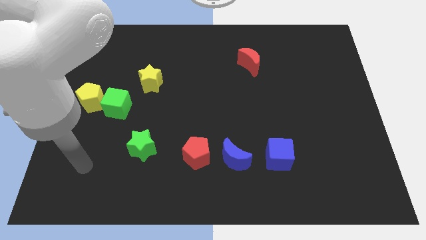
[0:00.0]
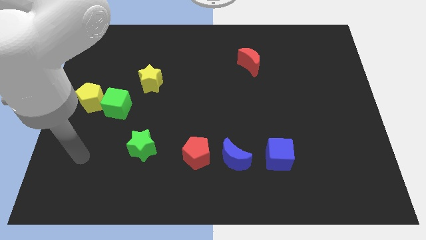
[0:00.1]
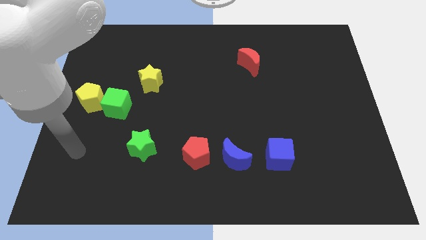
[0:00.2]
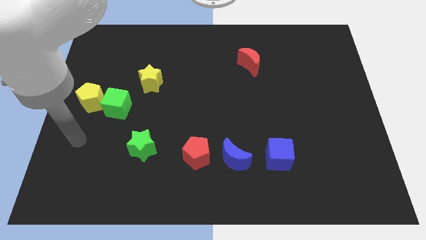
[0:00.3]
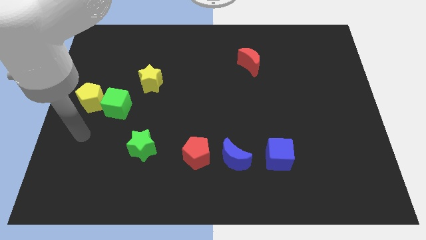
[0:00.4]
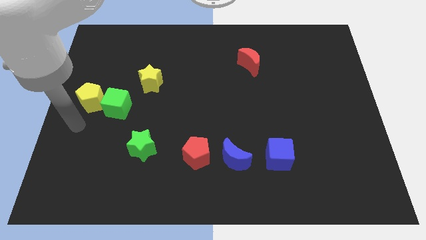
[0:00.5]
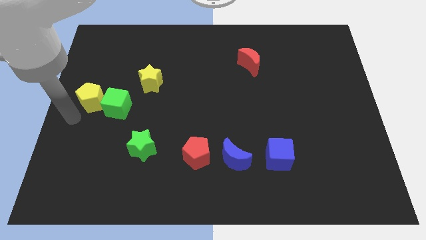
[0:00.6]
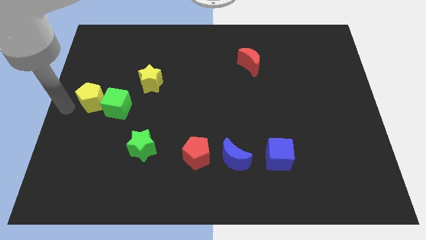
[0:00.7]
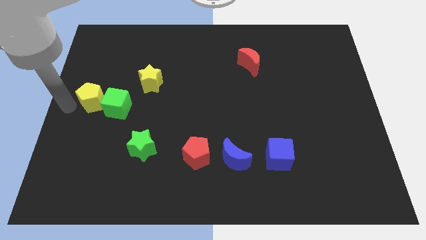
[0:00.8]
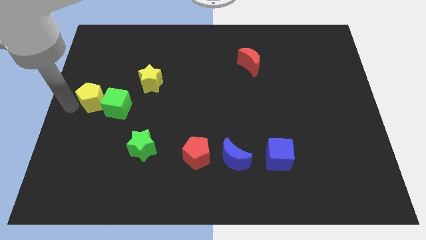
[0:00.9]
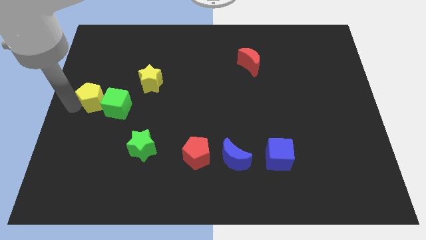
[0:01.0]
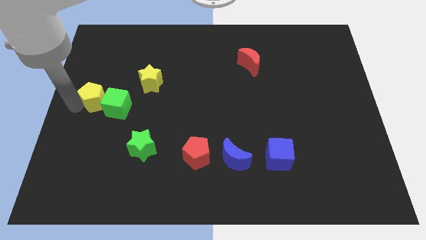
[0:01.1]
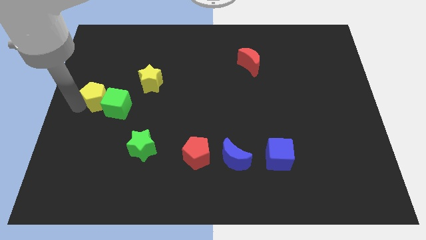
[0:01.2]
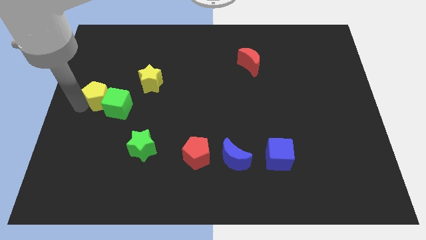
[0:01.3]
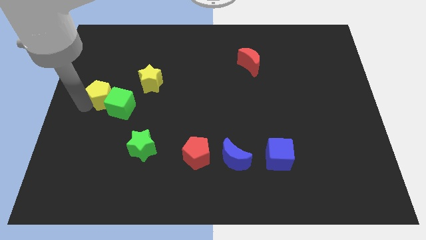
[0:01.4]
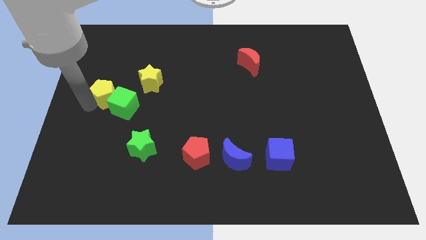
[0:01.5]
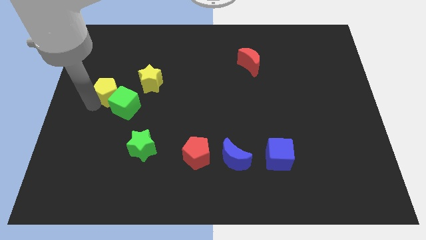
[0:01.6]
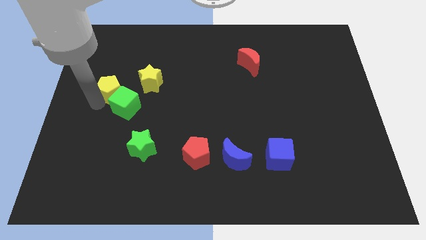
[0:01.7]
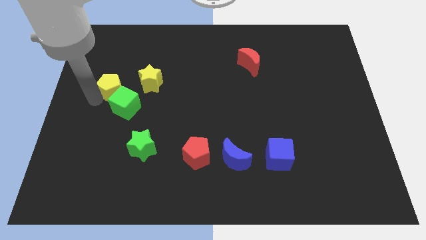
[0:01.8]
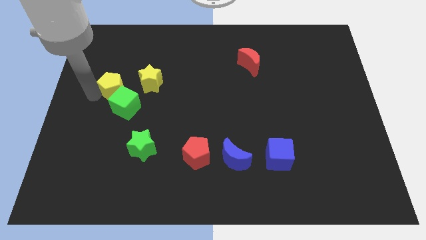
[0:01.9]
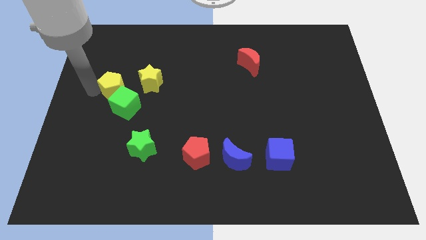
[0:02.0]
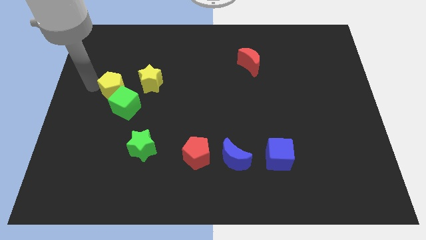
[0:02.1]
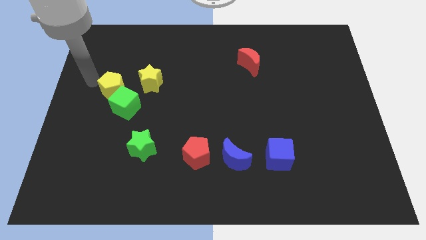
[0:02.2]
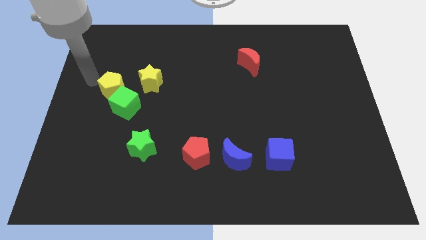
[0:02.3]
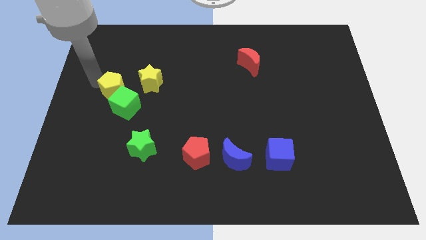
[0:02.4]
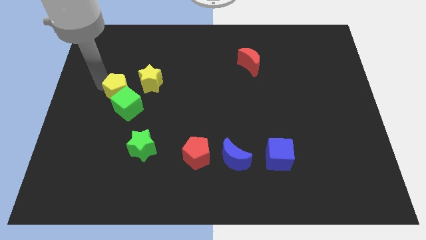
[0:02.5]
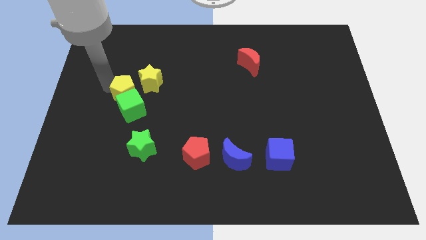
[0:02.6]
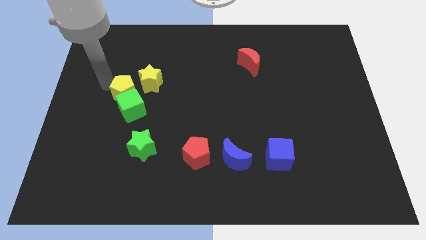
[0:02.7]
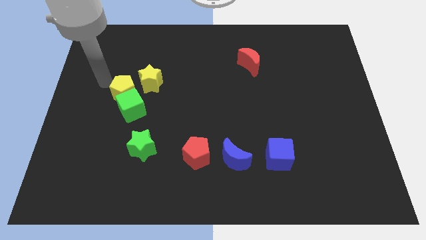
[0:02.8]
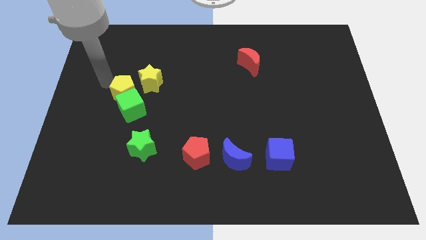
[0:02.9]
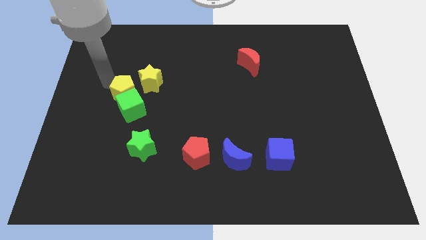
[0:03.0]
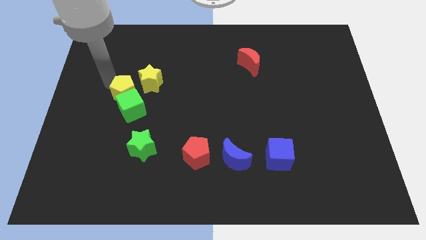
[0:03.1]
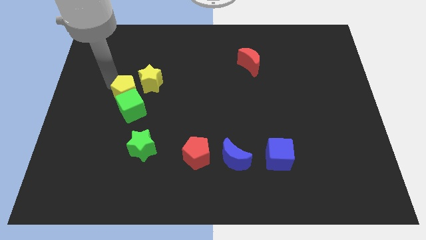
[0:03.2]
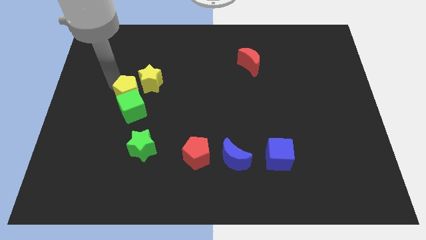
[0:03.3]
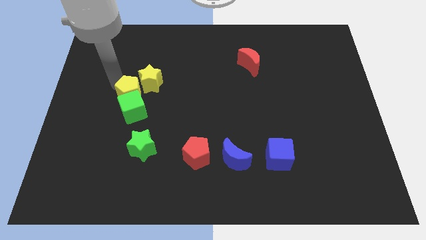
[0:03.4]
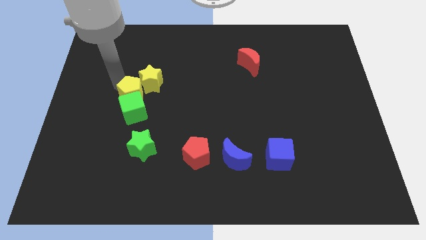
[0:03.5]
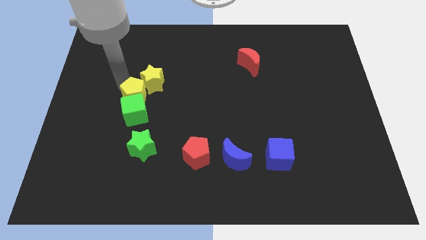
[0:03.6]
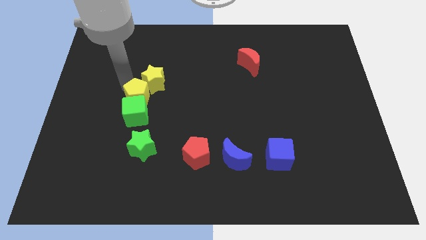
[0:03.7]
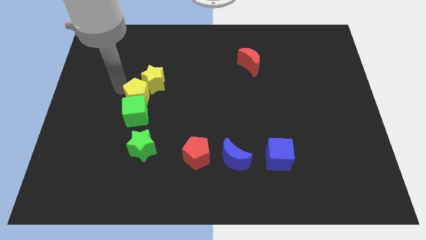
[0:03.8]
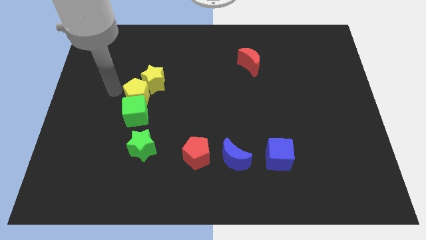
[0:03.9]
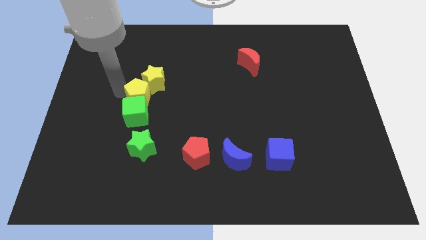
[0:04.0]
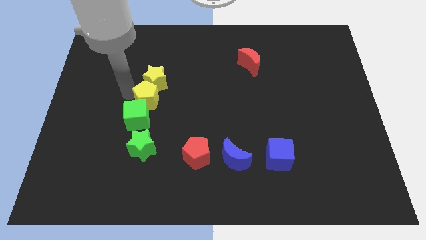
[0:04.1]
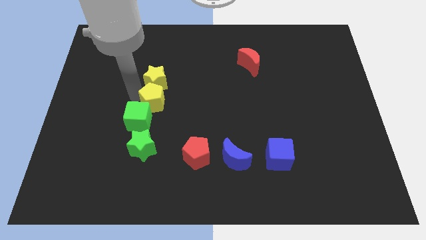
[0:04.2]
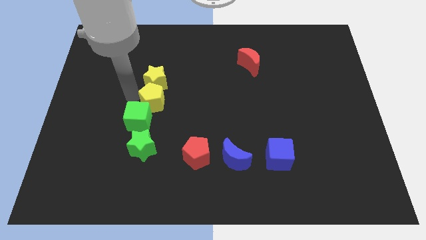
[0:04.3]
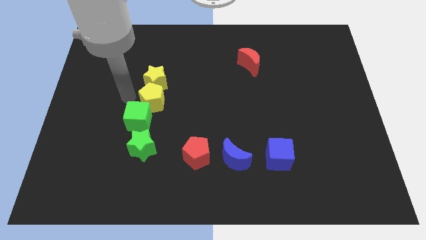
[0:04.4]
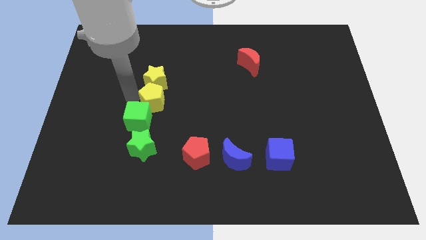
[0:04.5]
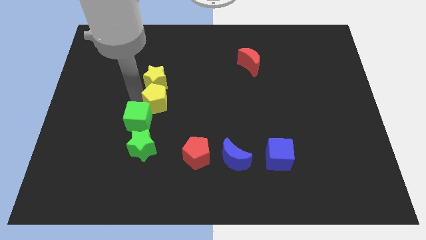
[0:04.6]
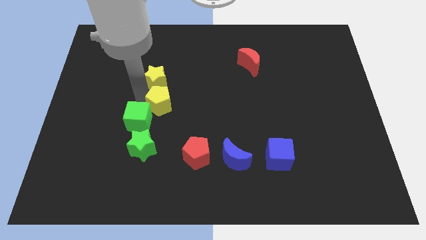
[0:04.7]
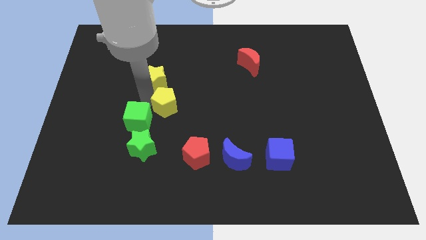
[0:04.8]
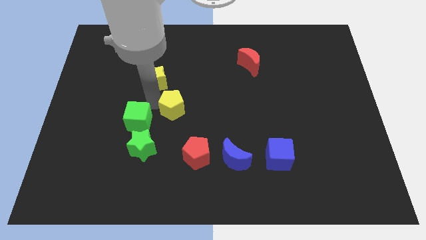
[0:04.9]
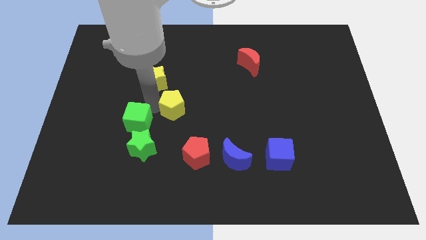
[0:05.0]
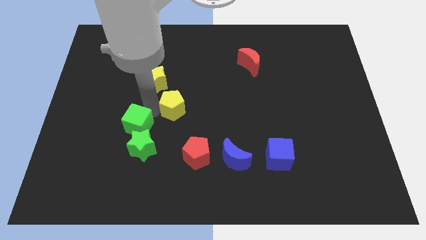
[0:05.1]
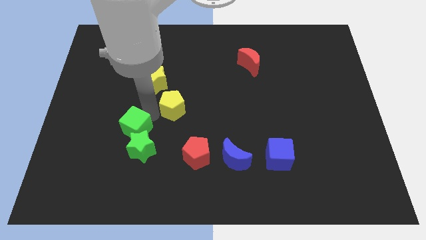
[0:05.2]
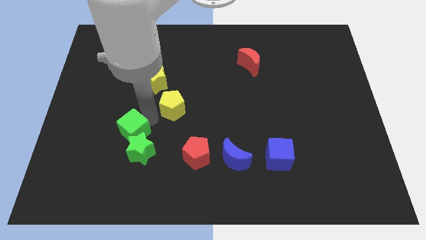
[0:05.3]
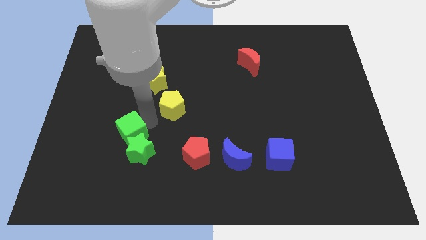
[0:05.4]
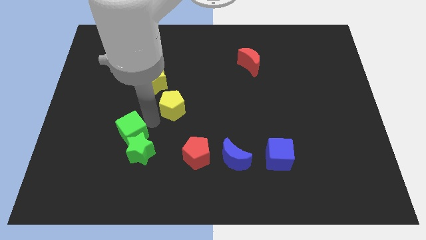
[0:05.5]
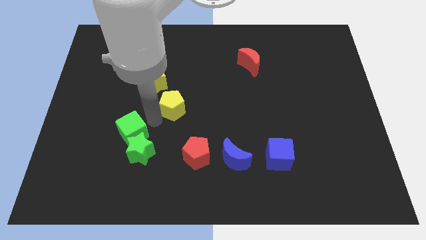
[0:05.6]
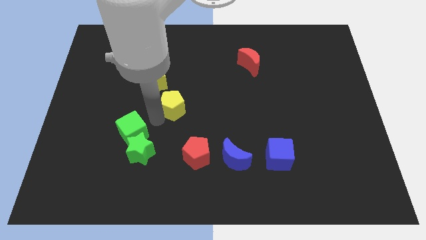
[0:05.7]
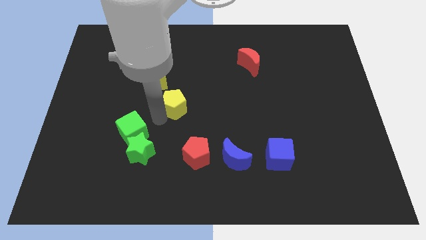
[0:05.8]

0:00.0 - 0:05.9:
slide the yellow pentagon to the right

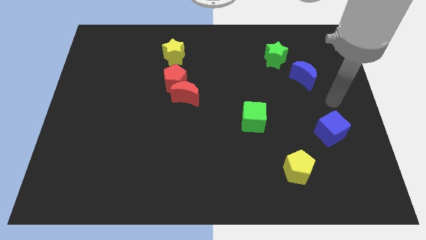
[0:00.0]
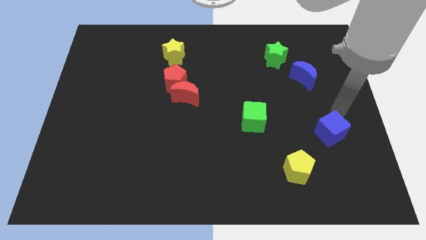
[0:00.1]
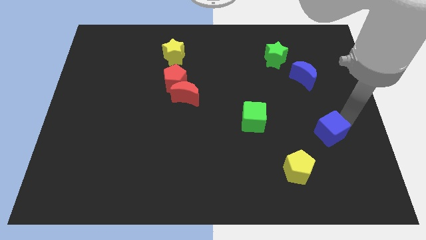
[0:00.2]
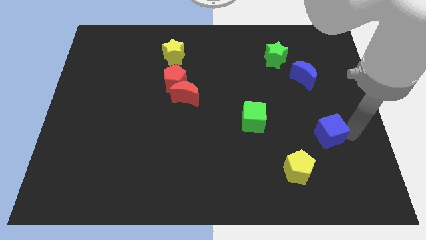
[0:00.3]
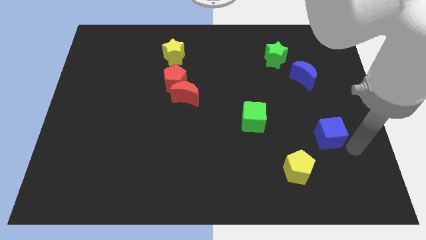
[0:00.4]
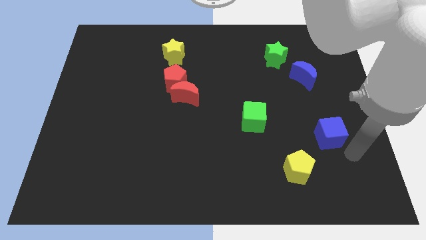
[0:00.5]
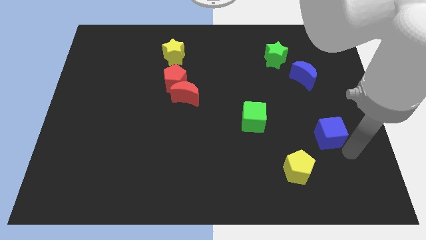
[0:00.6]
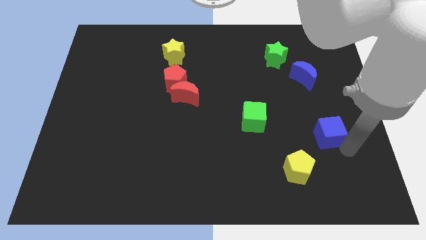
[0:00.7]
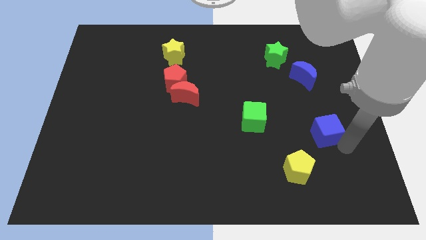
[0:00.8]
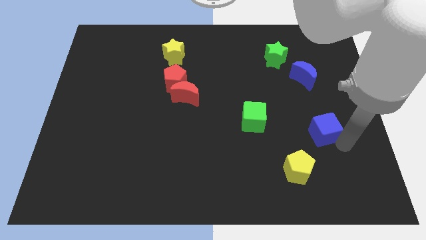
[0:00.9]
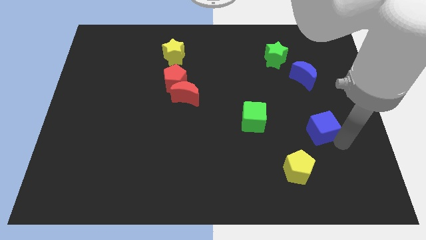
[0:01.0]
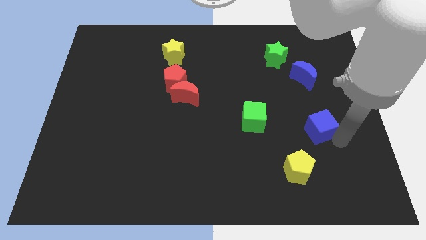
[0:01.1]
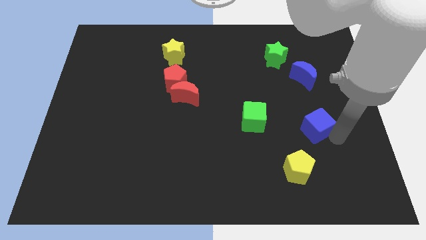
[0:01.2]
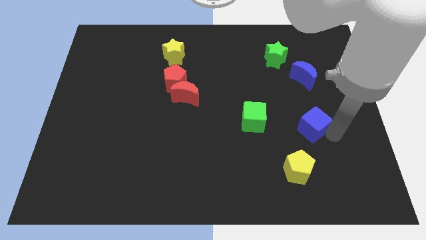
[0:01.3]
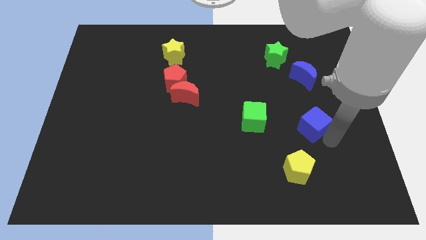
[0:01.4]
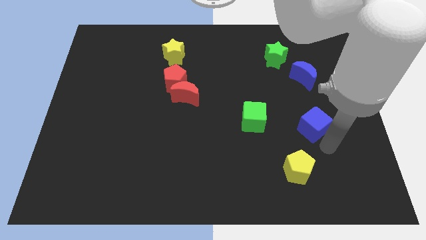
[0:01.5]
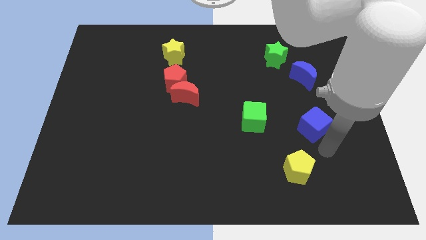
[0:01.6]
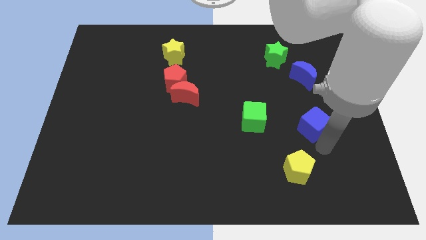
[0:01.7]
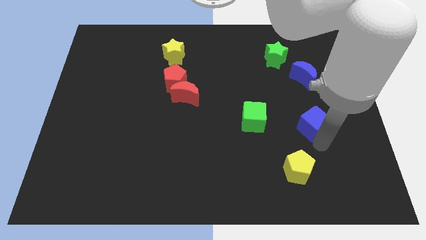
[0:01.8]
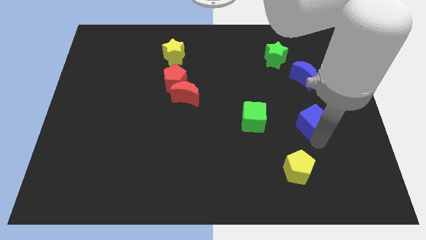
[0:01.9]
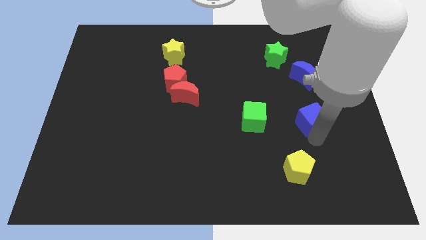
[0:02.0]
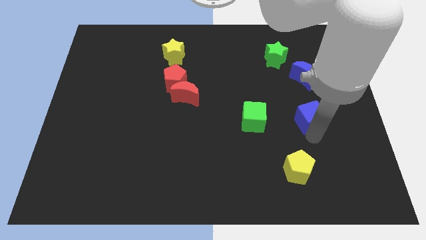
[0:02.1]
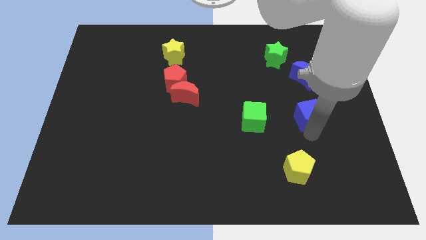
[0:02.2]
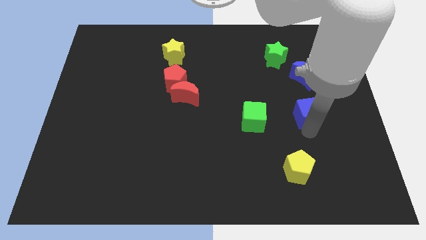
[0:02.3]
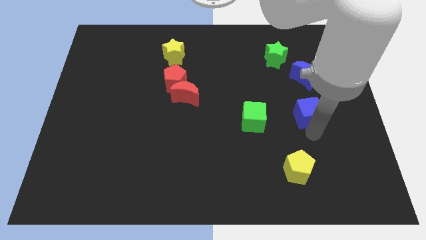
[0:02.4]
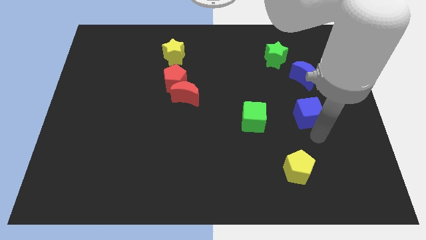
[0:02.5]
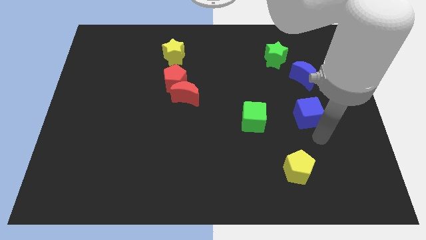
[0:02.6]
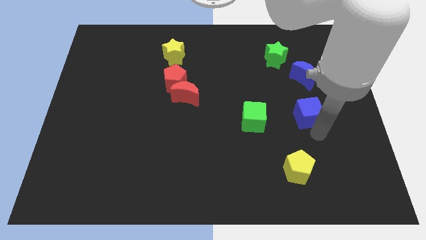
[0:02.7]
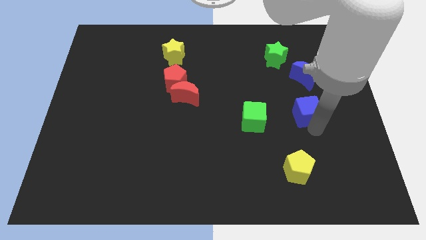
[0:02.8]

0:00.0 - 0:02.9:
push the blue cube up and to the left a little bit
